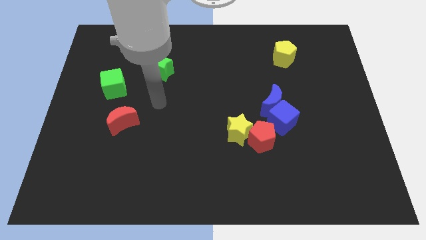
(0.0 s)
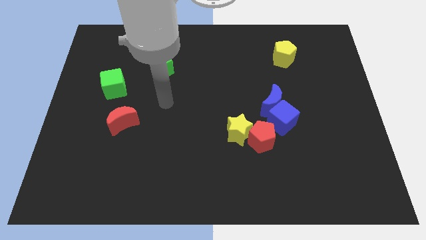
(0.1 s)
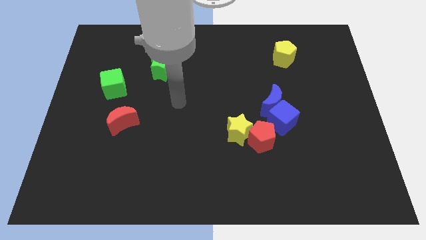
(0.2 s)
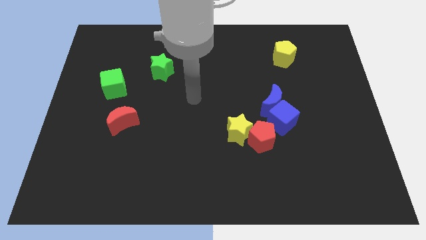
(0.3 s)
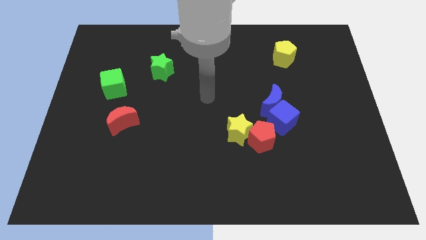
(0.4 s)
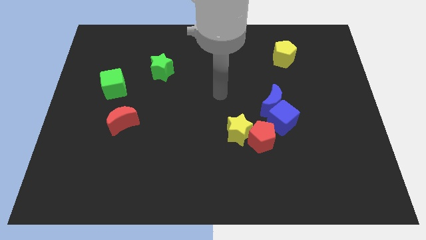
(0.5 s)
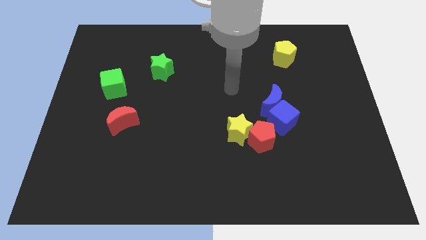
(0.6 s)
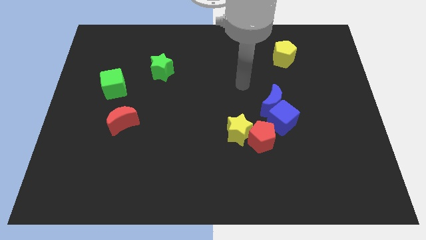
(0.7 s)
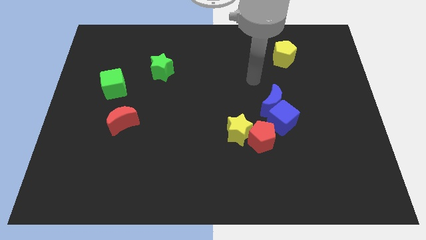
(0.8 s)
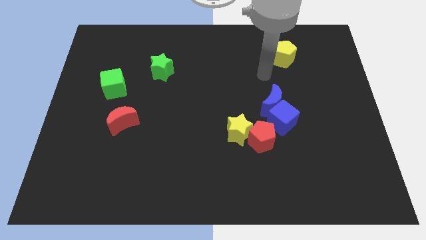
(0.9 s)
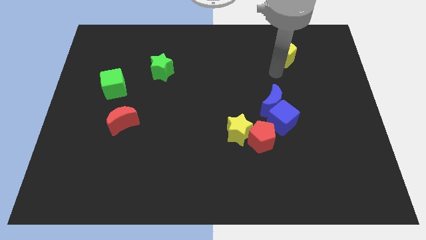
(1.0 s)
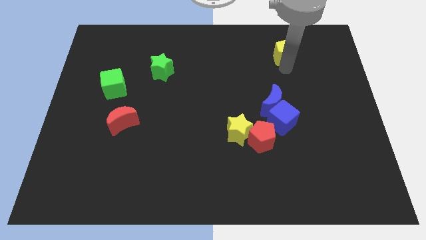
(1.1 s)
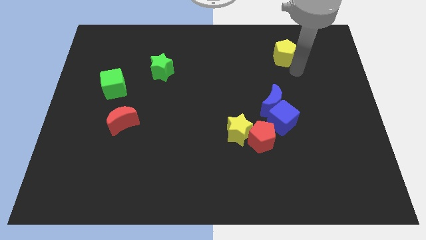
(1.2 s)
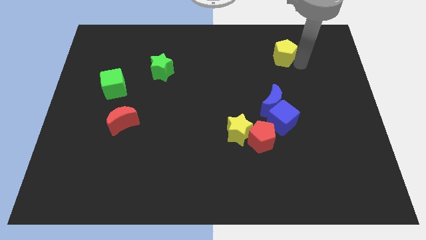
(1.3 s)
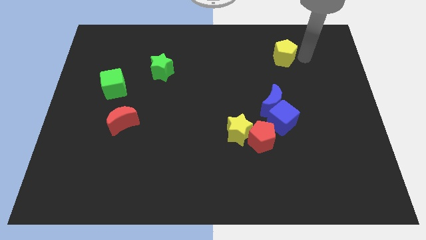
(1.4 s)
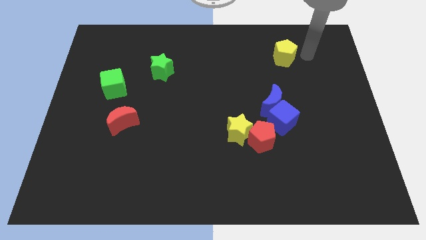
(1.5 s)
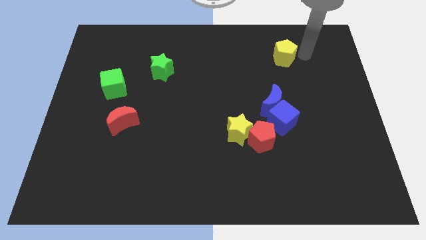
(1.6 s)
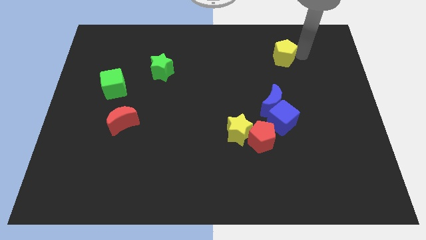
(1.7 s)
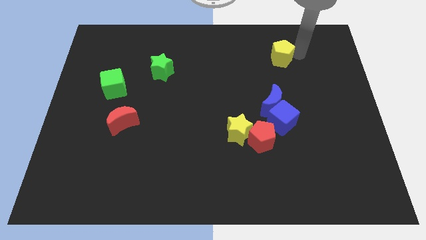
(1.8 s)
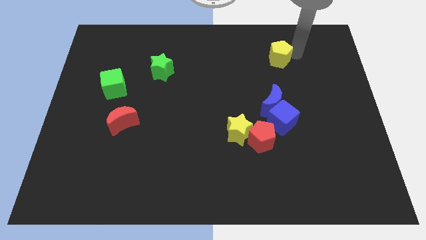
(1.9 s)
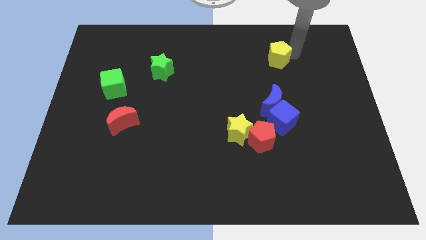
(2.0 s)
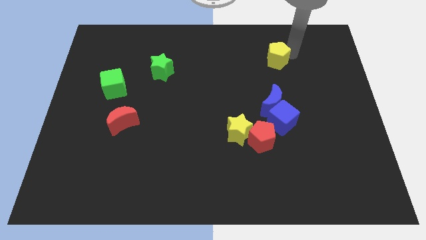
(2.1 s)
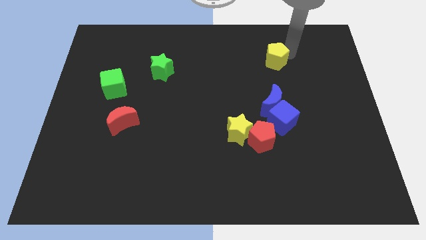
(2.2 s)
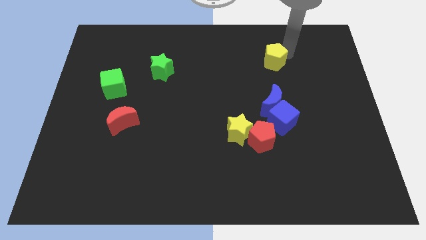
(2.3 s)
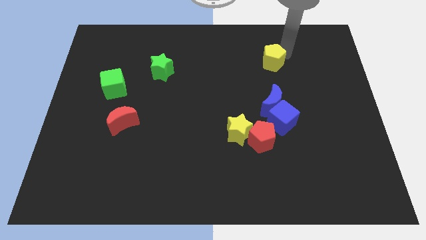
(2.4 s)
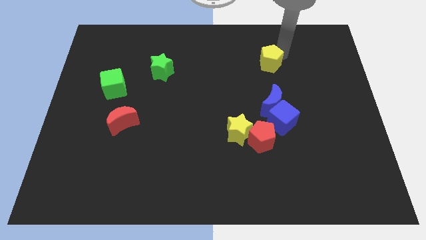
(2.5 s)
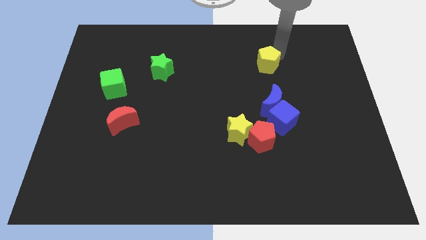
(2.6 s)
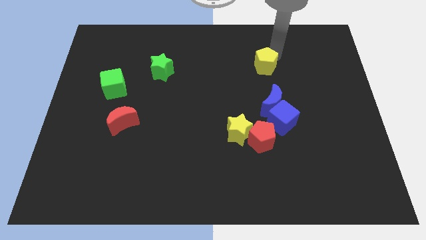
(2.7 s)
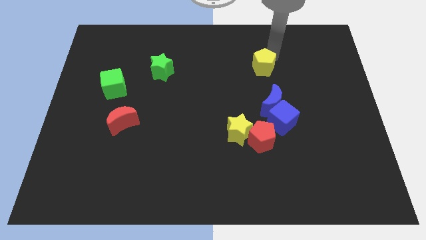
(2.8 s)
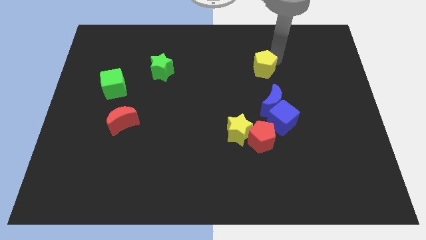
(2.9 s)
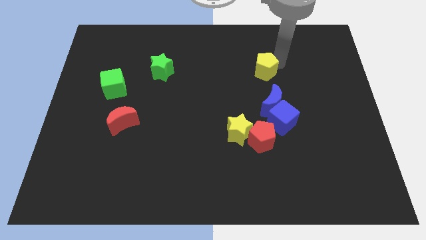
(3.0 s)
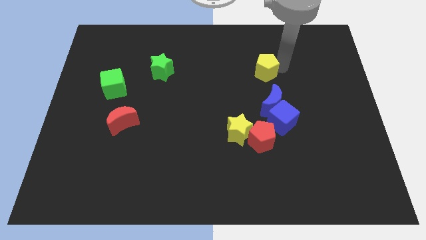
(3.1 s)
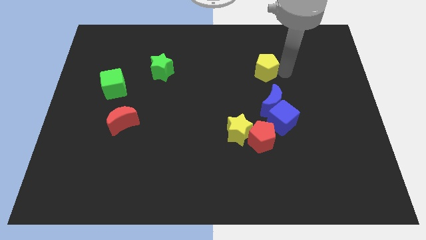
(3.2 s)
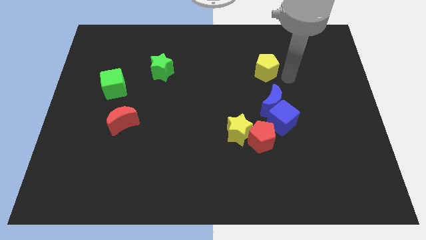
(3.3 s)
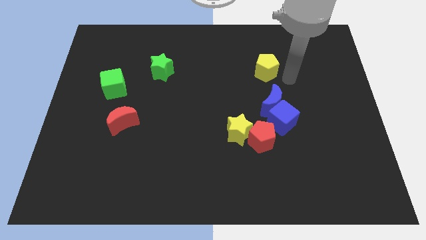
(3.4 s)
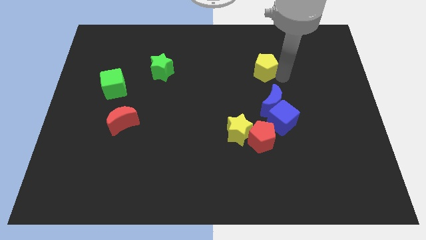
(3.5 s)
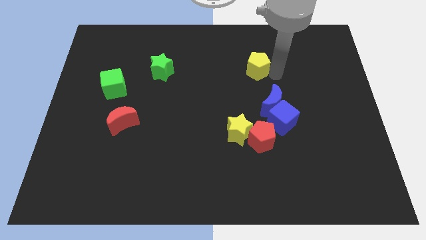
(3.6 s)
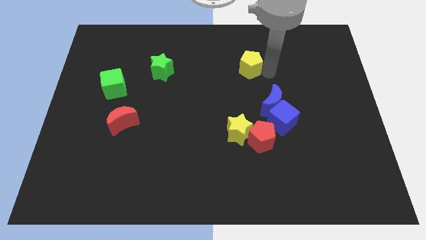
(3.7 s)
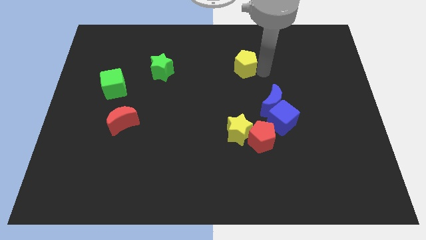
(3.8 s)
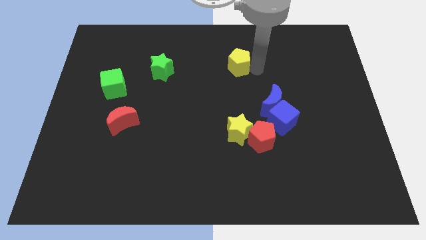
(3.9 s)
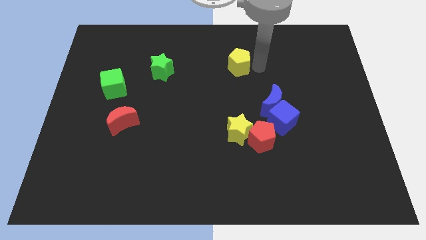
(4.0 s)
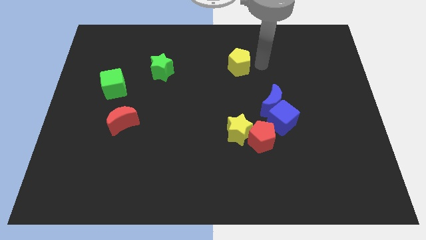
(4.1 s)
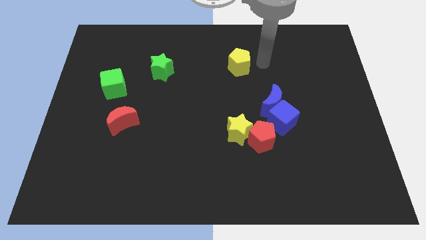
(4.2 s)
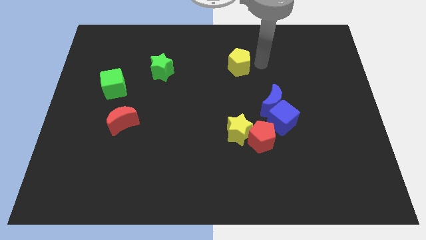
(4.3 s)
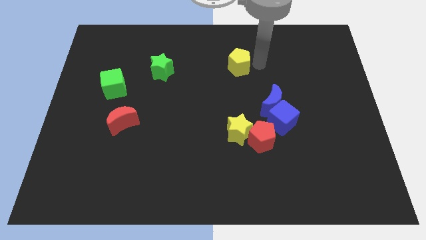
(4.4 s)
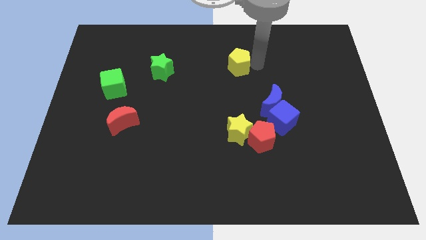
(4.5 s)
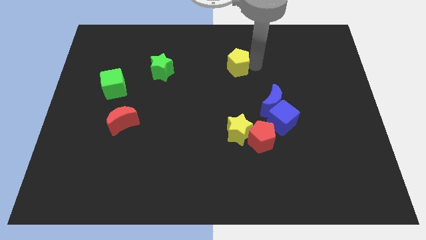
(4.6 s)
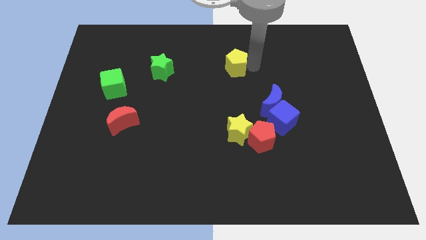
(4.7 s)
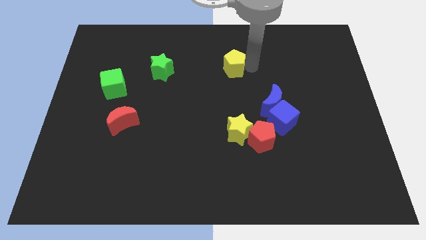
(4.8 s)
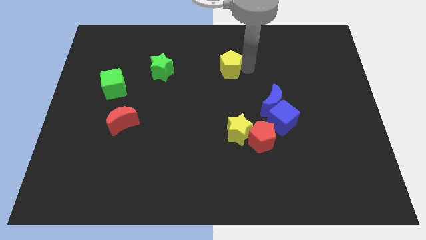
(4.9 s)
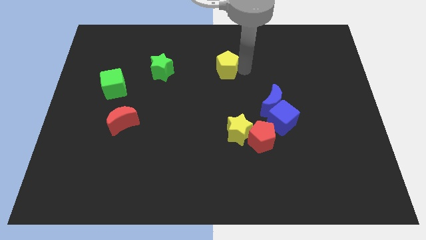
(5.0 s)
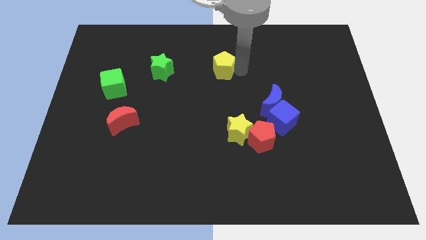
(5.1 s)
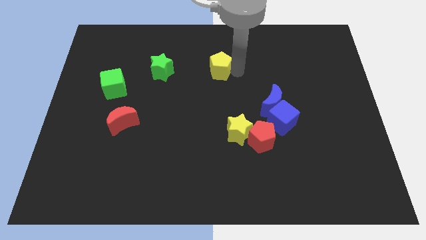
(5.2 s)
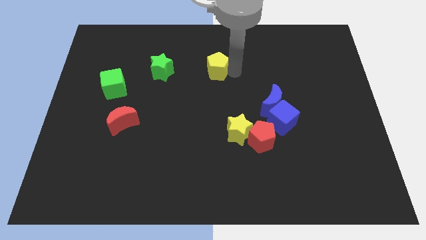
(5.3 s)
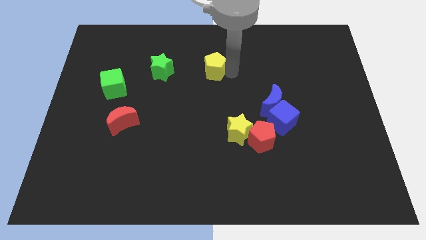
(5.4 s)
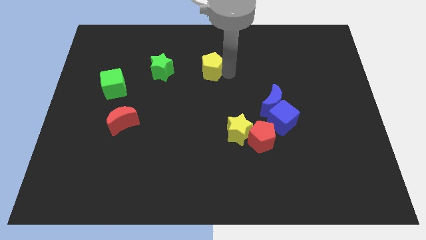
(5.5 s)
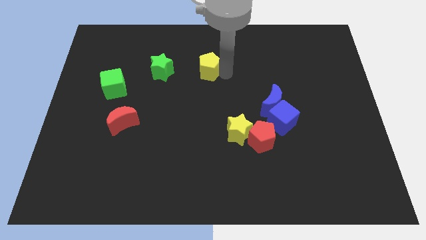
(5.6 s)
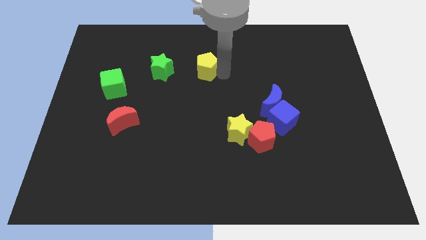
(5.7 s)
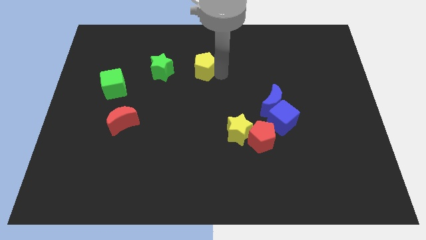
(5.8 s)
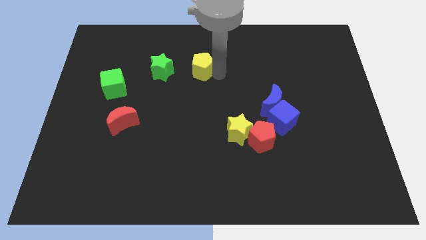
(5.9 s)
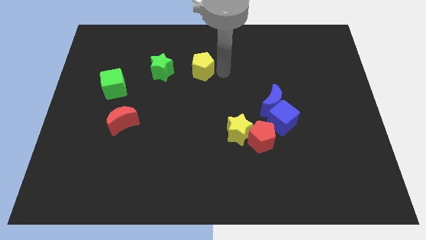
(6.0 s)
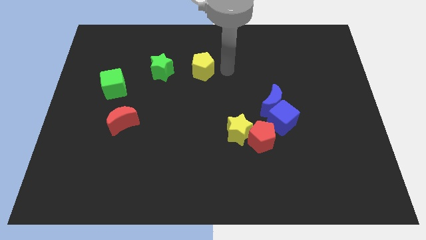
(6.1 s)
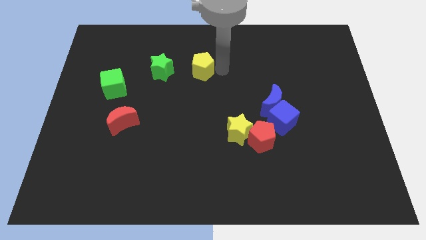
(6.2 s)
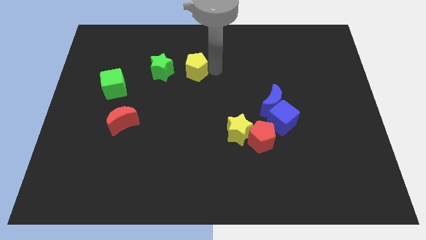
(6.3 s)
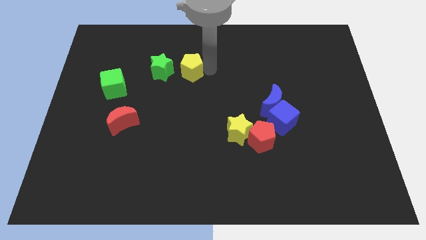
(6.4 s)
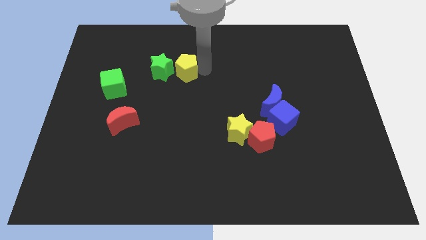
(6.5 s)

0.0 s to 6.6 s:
push the yellow pentagon towards the green star

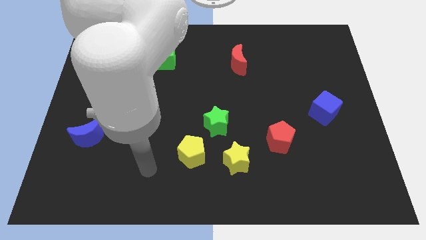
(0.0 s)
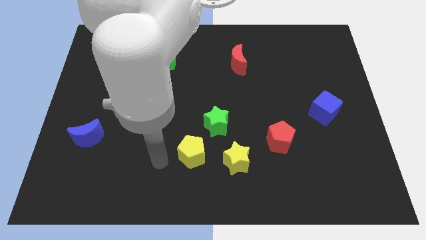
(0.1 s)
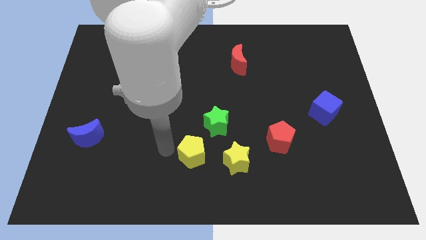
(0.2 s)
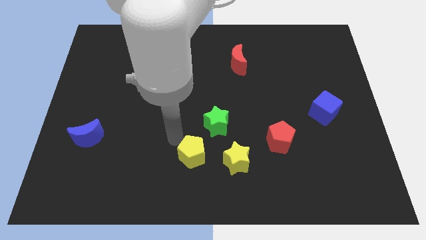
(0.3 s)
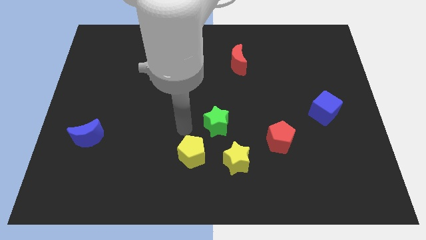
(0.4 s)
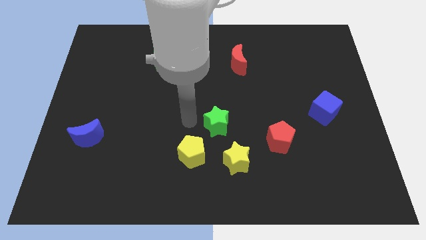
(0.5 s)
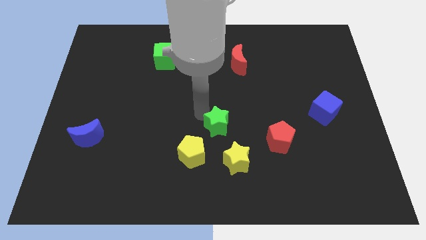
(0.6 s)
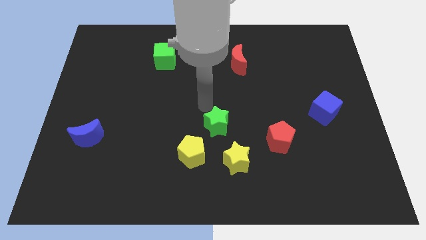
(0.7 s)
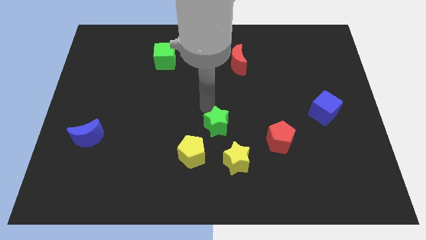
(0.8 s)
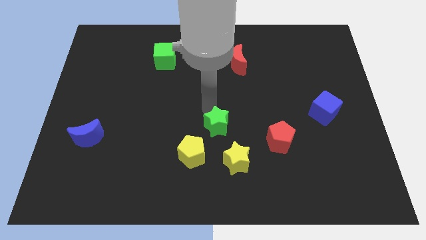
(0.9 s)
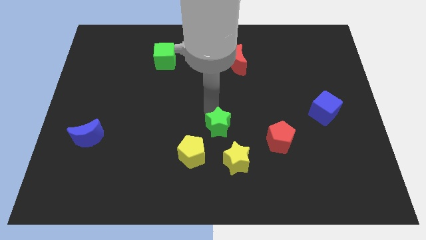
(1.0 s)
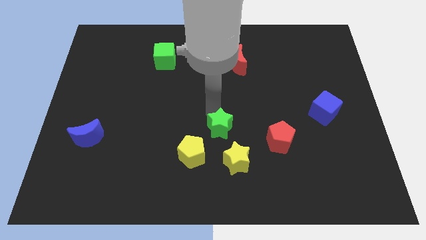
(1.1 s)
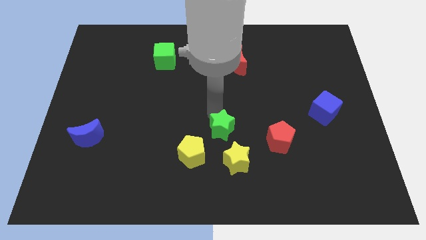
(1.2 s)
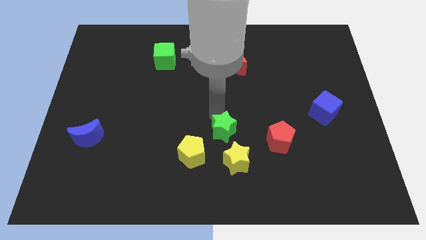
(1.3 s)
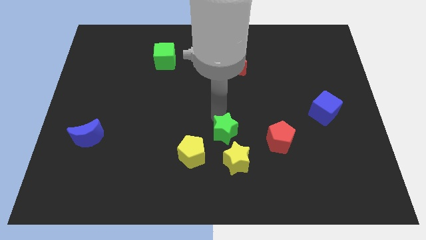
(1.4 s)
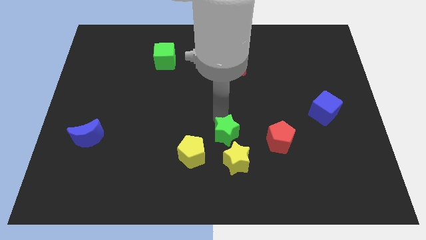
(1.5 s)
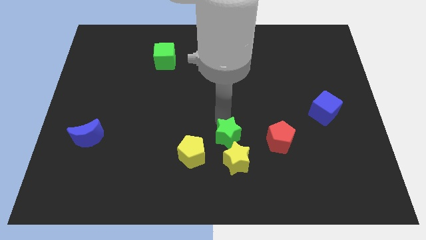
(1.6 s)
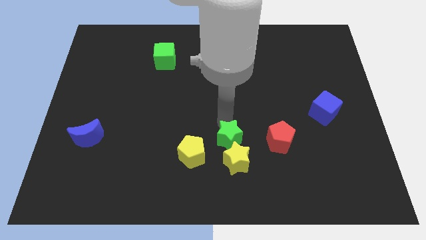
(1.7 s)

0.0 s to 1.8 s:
push the green star to the yellow star
